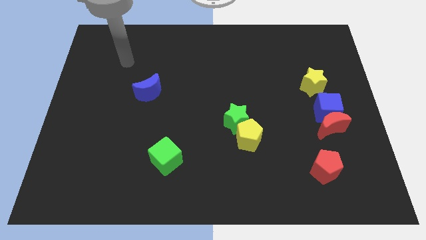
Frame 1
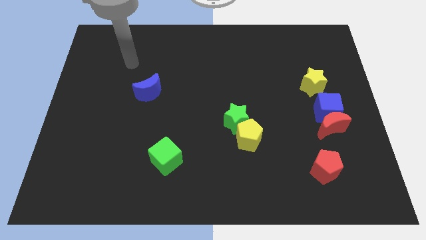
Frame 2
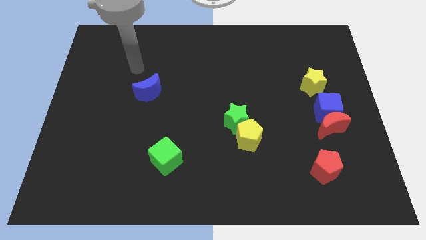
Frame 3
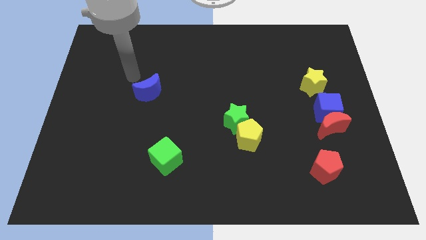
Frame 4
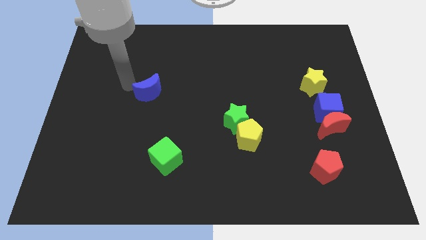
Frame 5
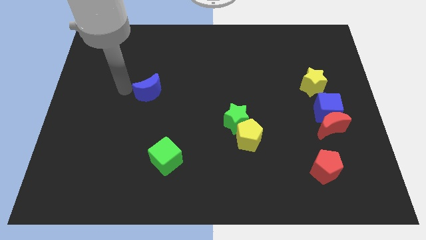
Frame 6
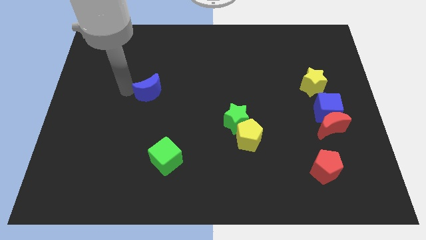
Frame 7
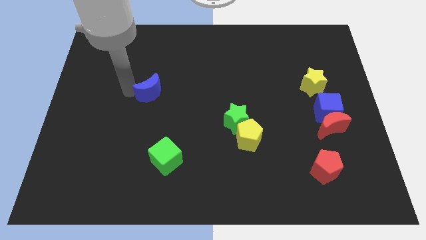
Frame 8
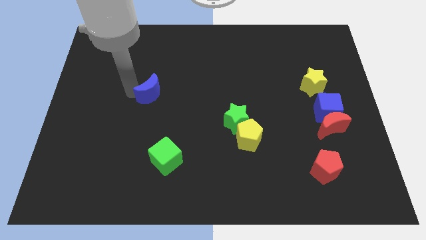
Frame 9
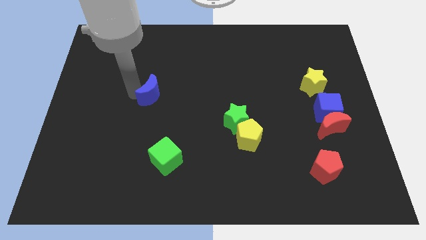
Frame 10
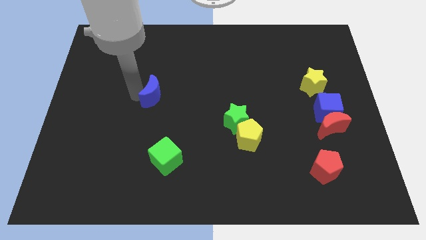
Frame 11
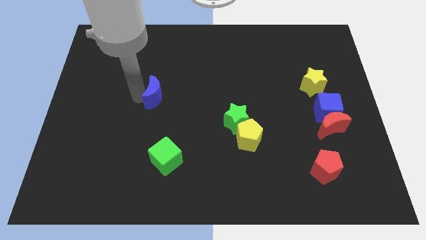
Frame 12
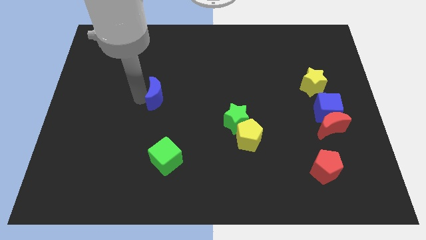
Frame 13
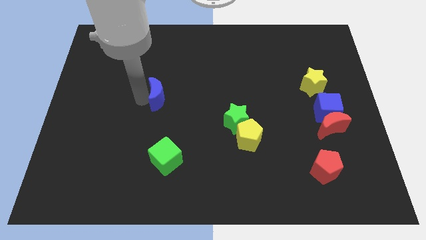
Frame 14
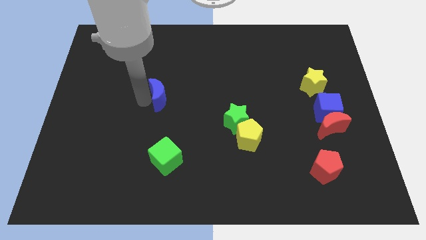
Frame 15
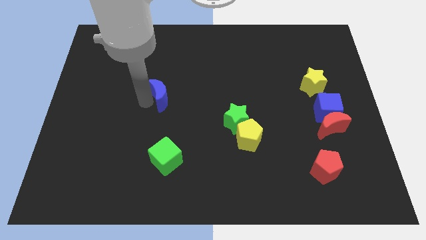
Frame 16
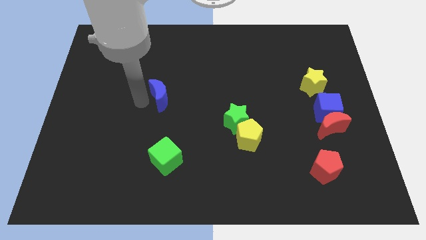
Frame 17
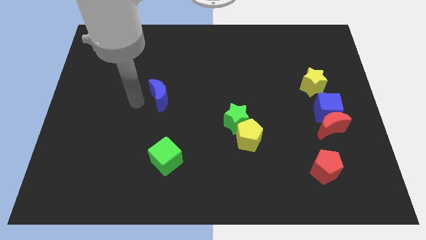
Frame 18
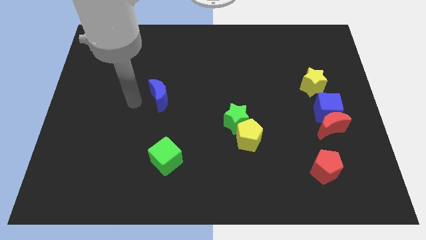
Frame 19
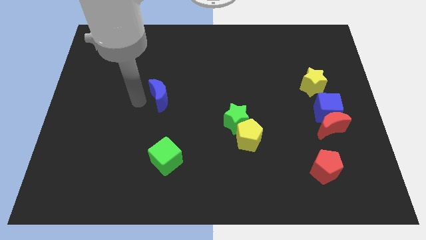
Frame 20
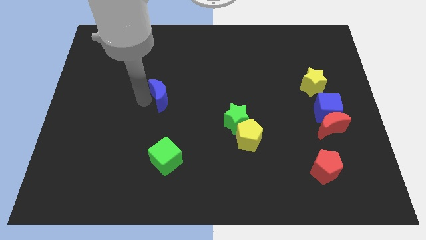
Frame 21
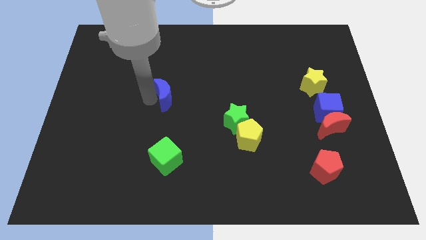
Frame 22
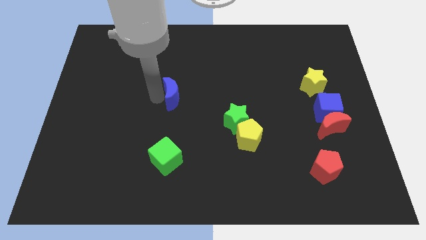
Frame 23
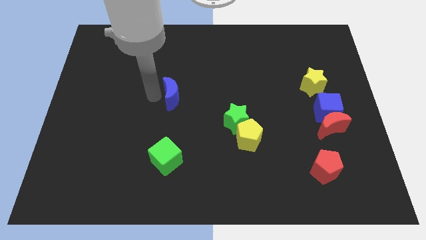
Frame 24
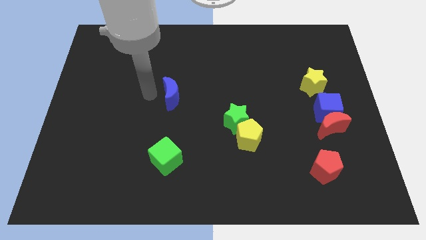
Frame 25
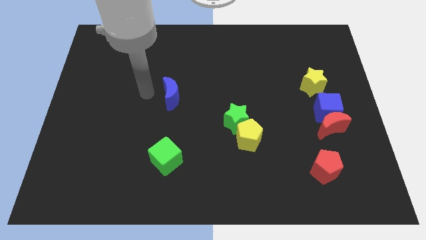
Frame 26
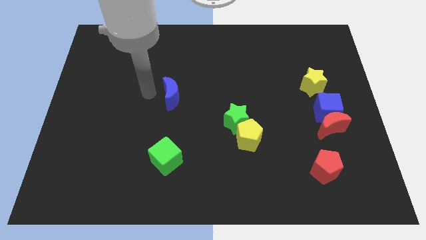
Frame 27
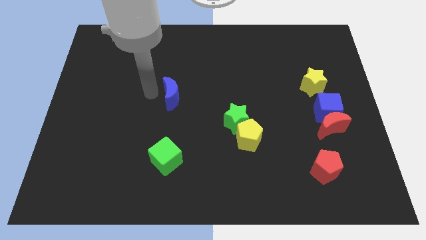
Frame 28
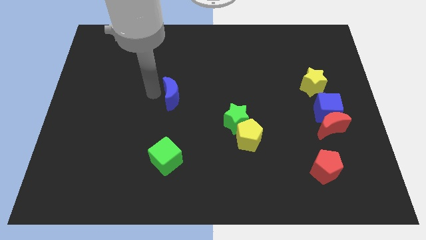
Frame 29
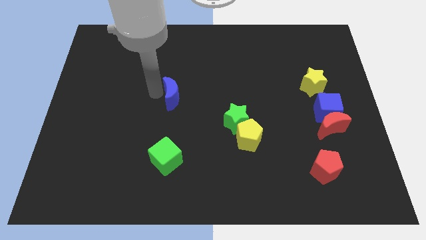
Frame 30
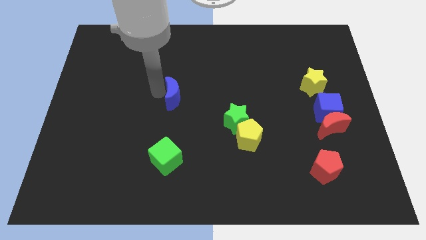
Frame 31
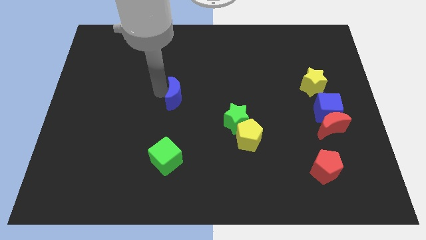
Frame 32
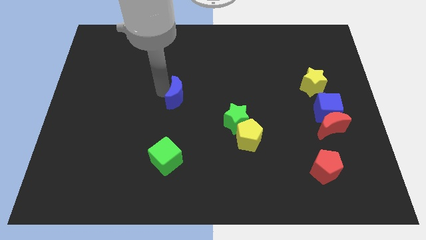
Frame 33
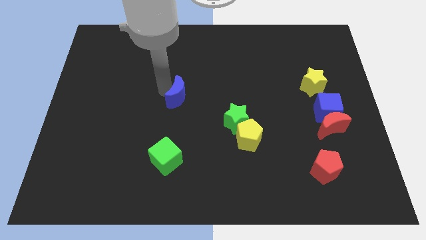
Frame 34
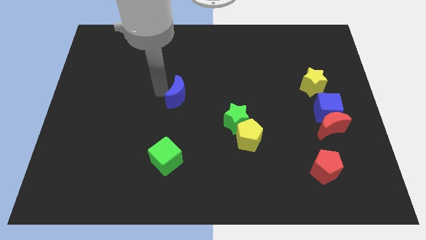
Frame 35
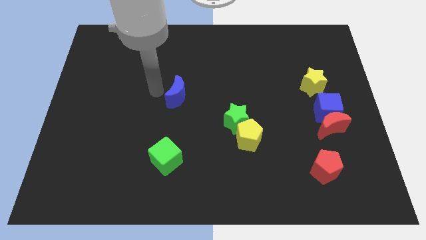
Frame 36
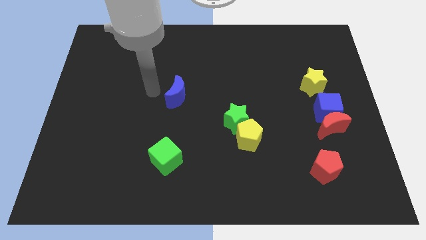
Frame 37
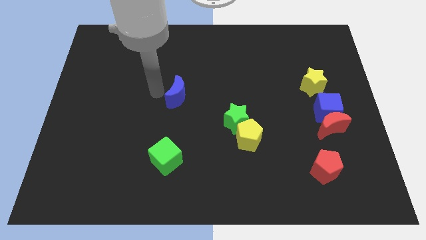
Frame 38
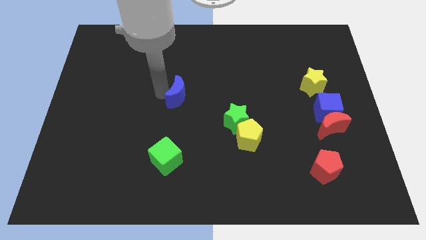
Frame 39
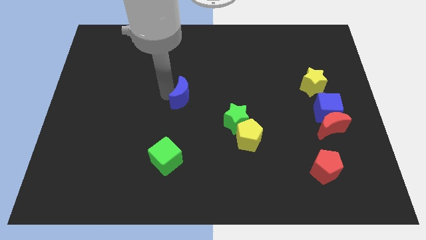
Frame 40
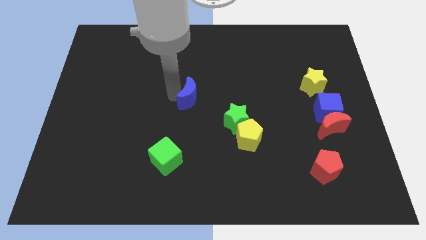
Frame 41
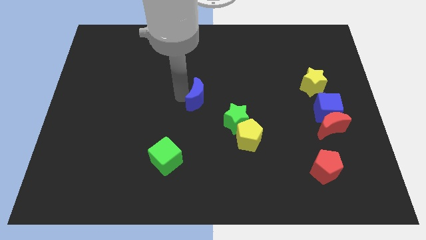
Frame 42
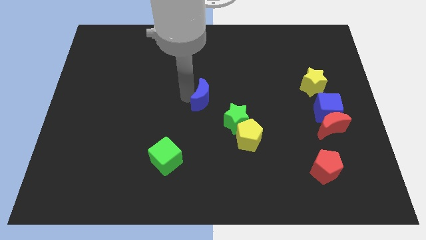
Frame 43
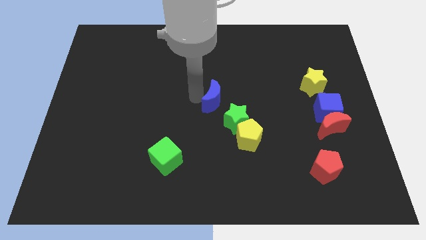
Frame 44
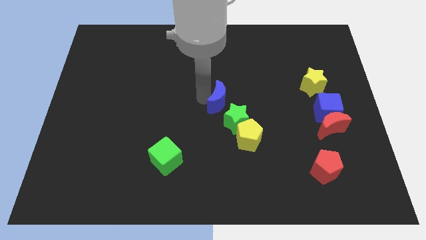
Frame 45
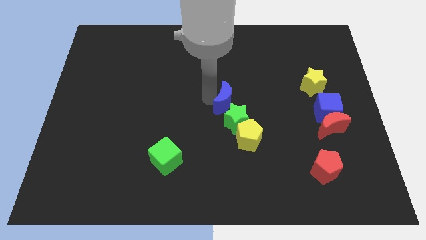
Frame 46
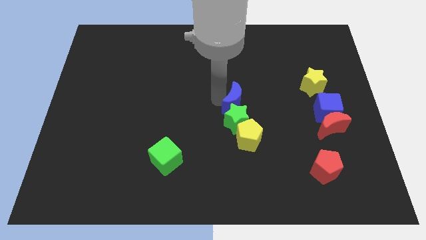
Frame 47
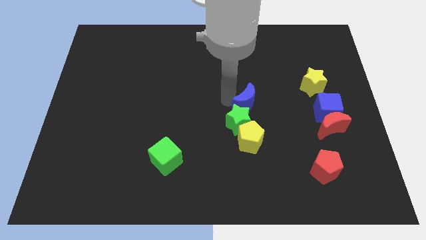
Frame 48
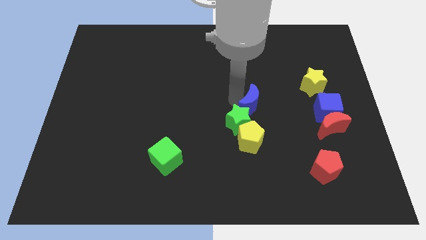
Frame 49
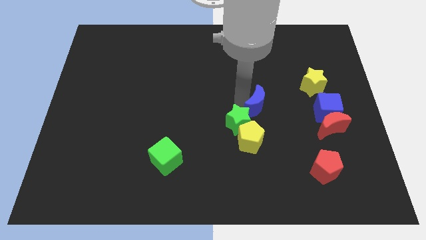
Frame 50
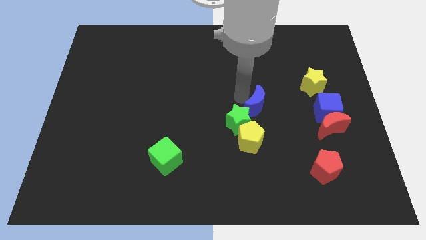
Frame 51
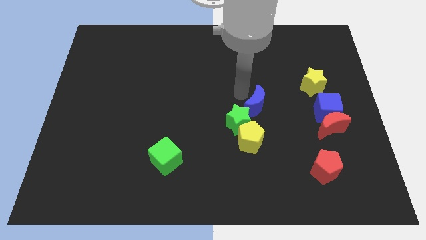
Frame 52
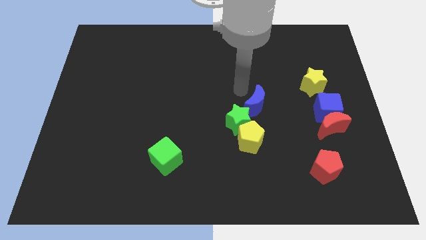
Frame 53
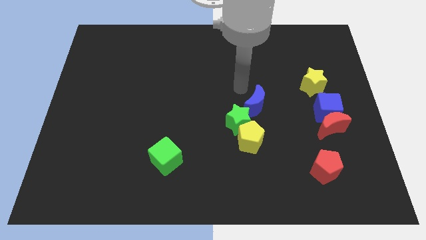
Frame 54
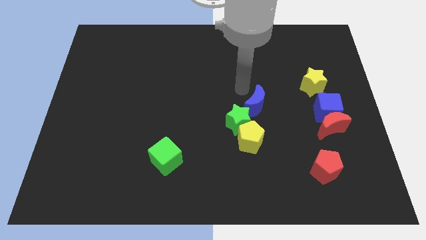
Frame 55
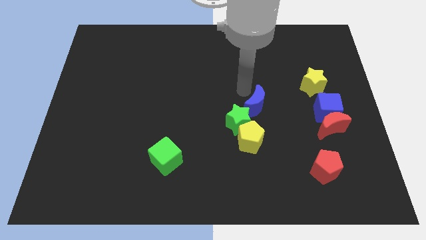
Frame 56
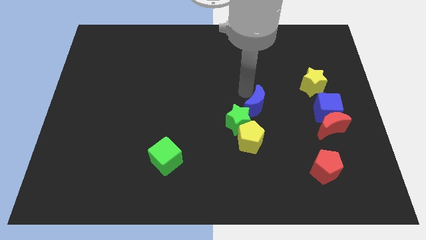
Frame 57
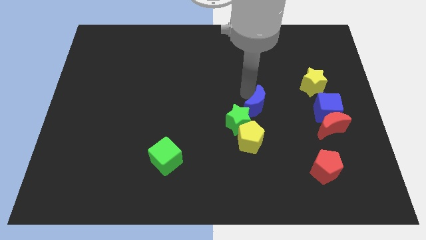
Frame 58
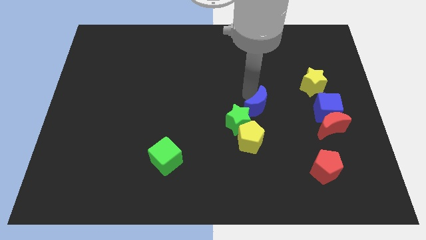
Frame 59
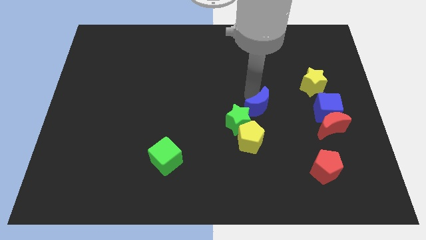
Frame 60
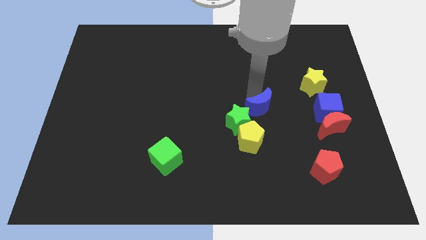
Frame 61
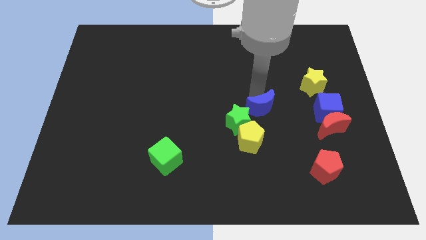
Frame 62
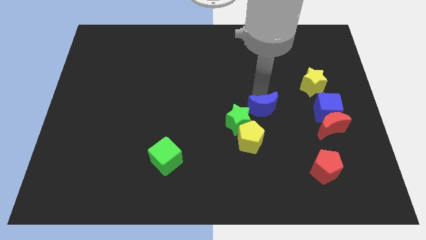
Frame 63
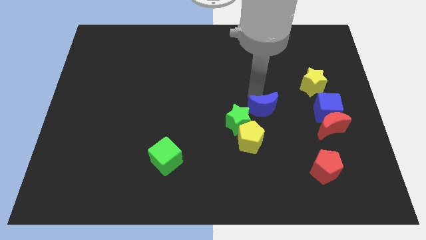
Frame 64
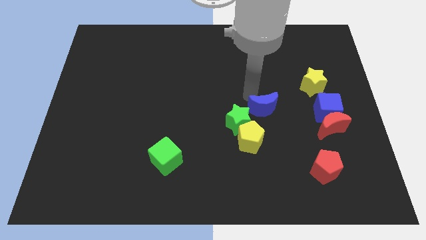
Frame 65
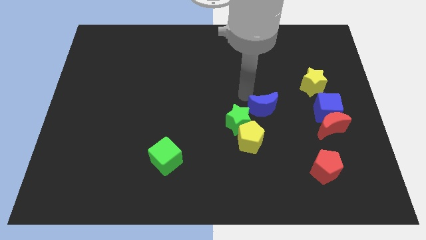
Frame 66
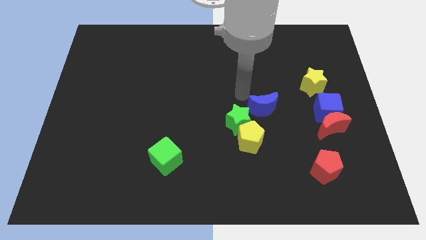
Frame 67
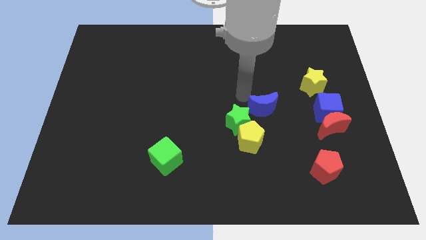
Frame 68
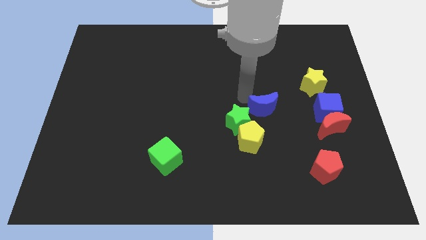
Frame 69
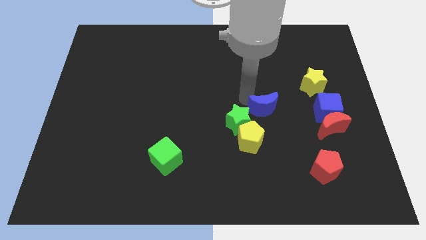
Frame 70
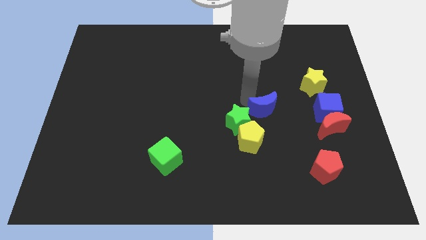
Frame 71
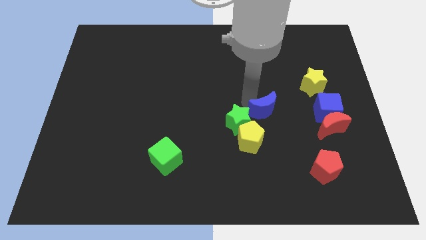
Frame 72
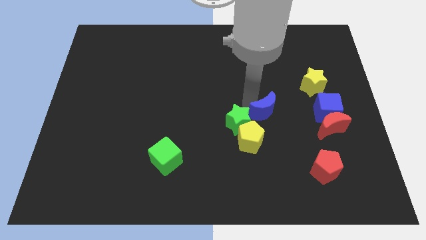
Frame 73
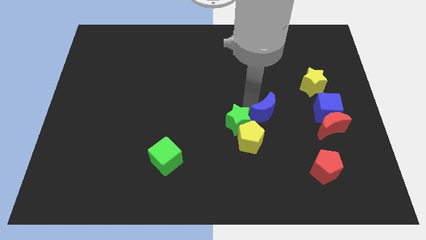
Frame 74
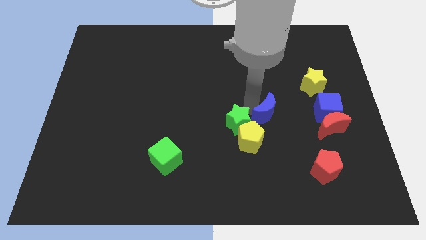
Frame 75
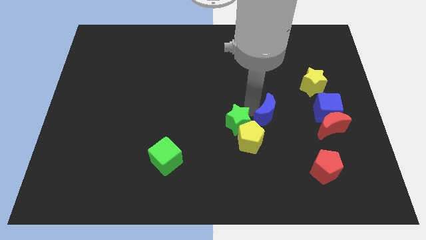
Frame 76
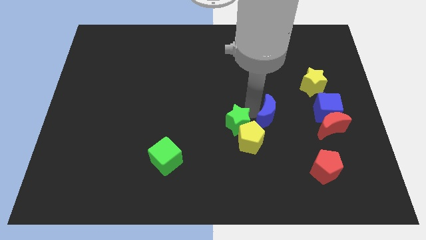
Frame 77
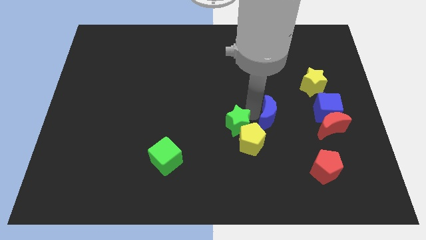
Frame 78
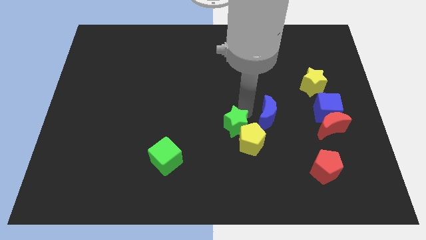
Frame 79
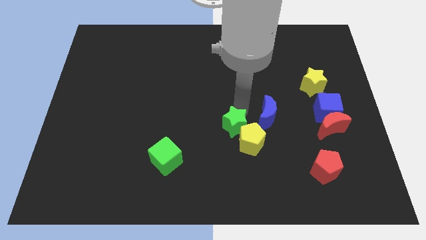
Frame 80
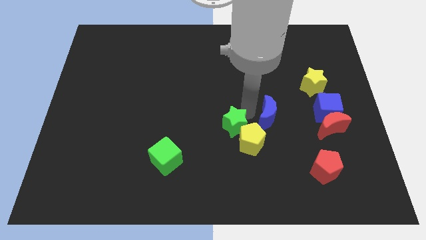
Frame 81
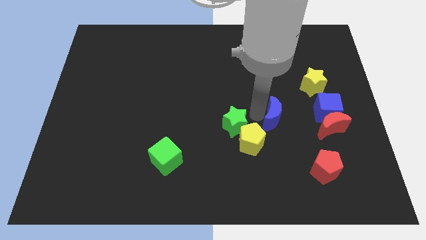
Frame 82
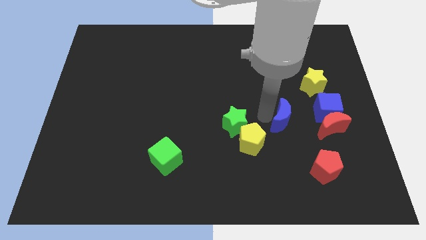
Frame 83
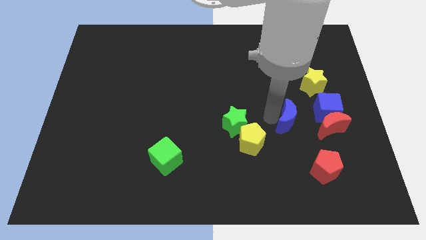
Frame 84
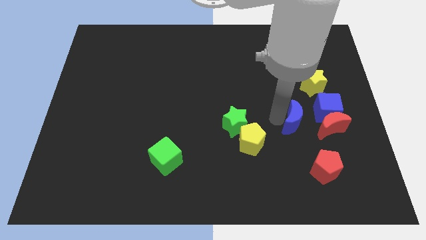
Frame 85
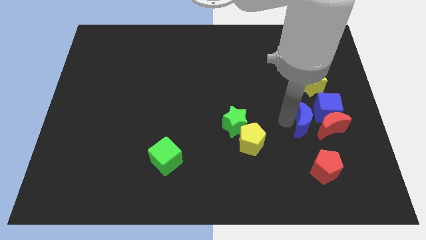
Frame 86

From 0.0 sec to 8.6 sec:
slide the blue moon to the red moon
